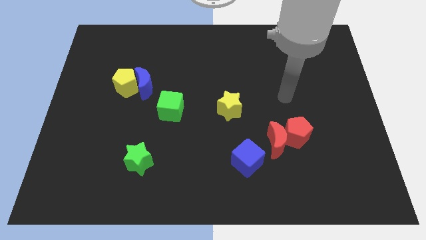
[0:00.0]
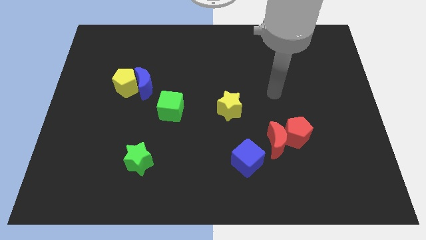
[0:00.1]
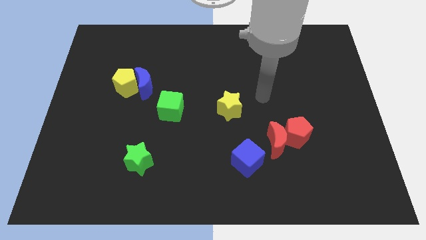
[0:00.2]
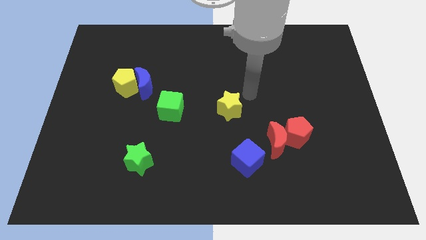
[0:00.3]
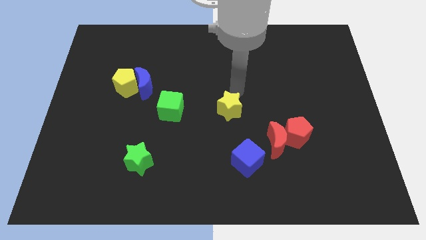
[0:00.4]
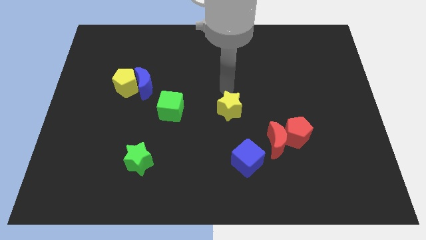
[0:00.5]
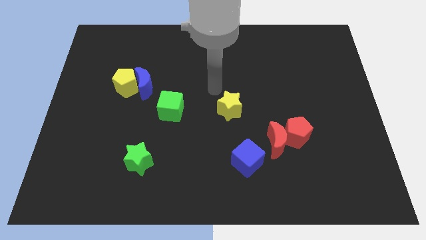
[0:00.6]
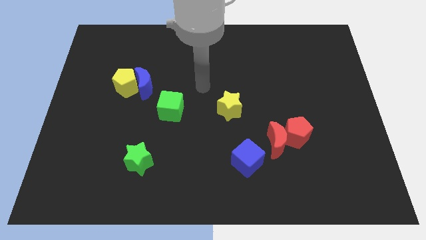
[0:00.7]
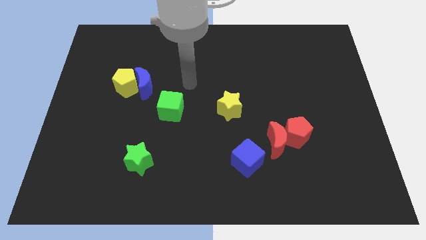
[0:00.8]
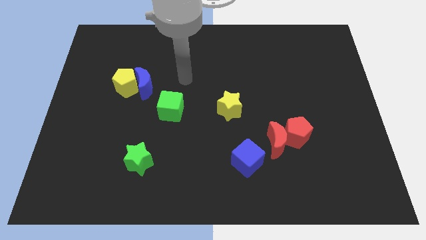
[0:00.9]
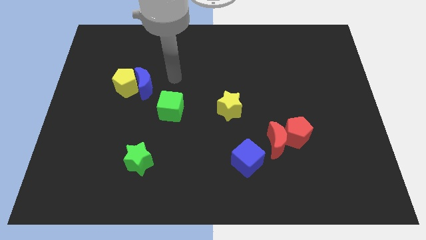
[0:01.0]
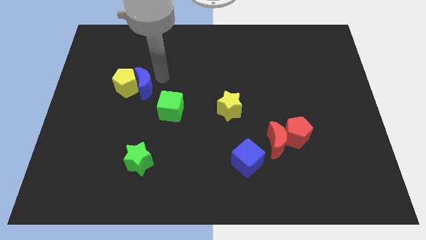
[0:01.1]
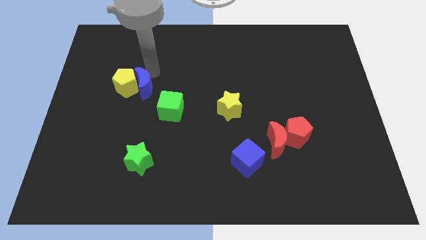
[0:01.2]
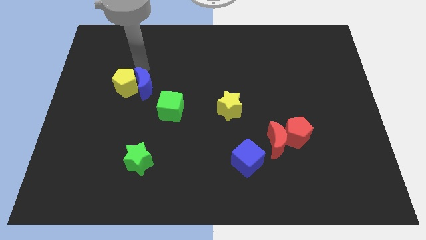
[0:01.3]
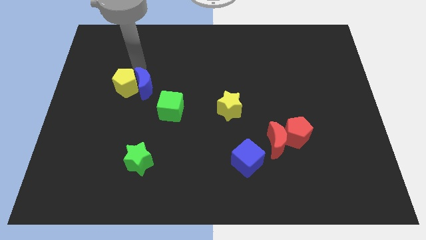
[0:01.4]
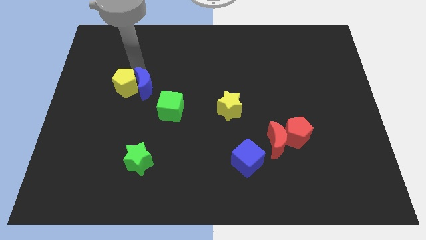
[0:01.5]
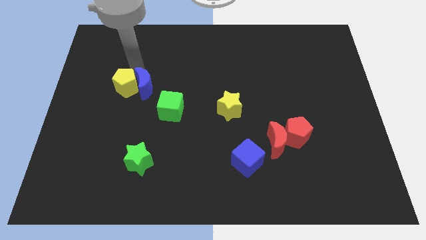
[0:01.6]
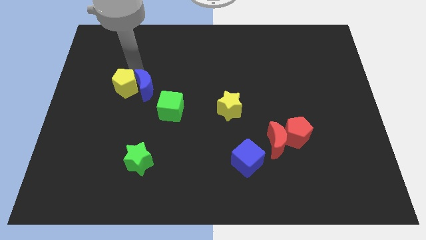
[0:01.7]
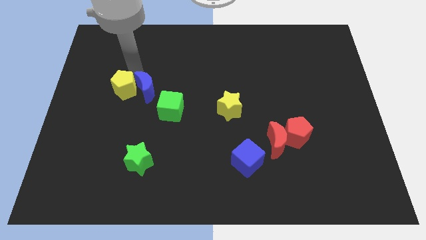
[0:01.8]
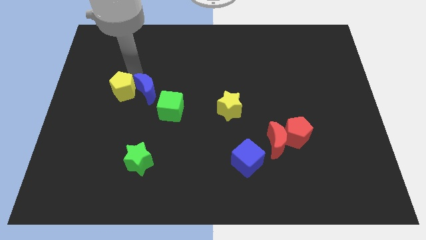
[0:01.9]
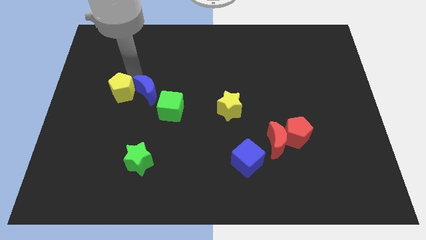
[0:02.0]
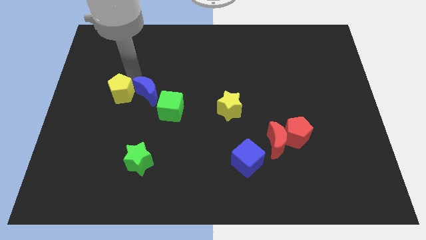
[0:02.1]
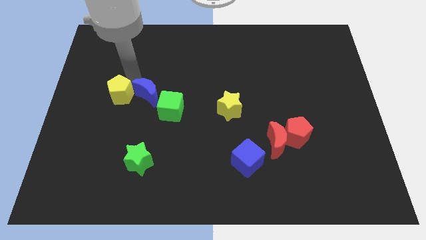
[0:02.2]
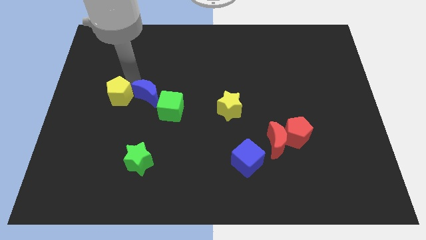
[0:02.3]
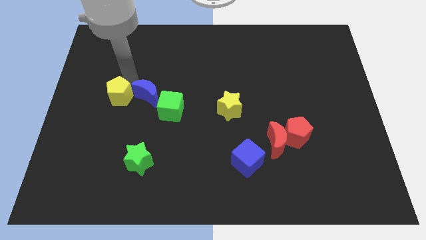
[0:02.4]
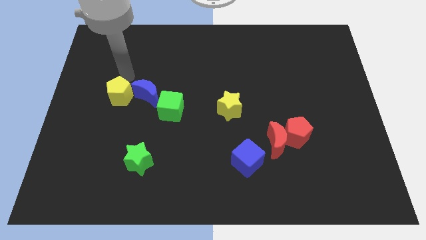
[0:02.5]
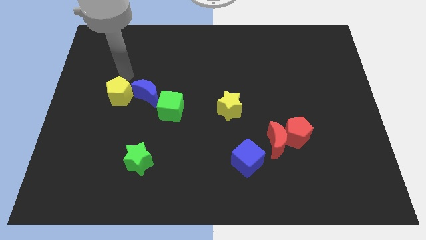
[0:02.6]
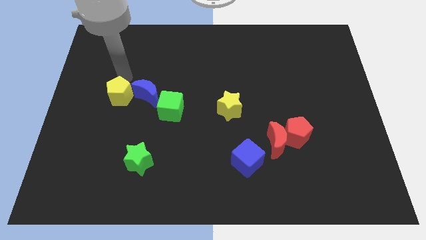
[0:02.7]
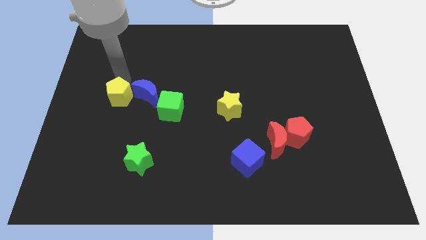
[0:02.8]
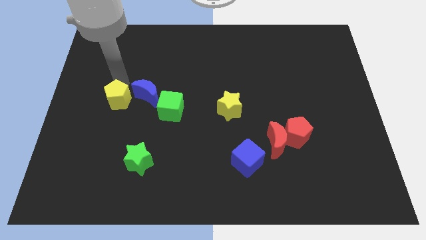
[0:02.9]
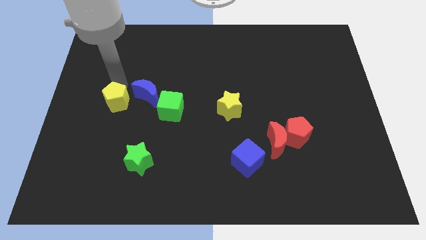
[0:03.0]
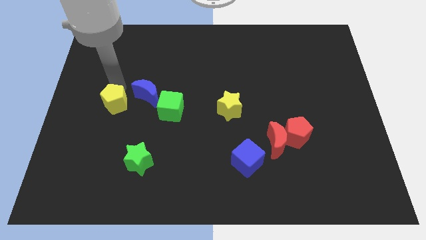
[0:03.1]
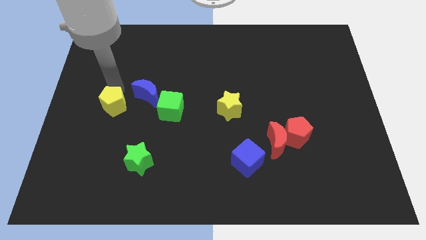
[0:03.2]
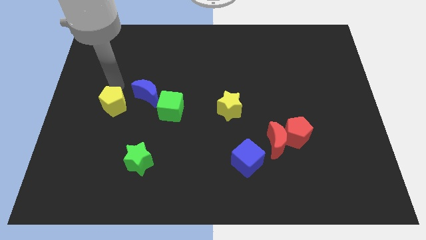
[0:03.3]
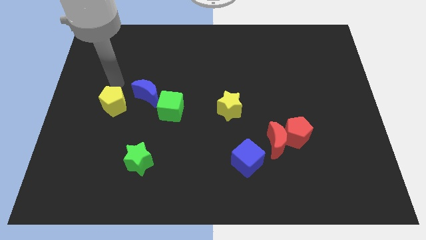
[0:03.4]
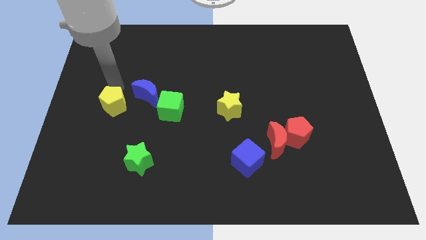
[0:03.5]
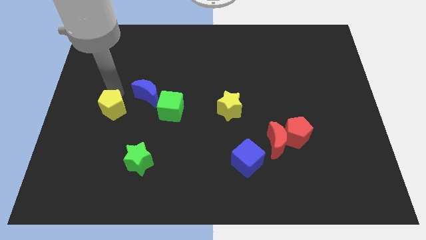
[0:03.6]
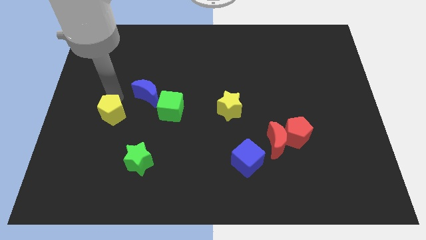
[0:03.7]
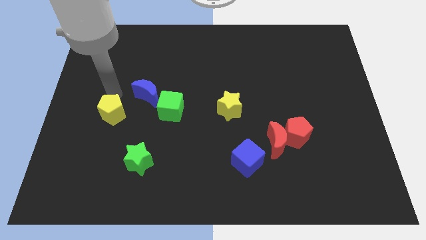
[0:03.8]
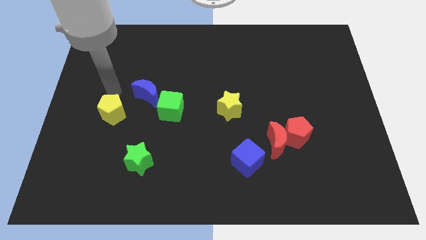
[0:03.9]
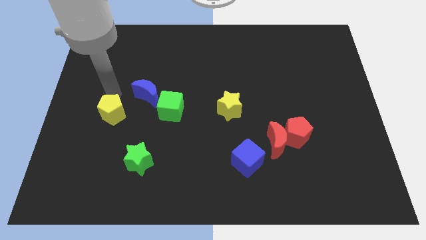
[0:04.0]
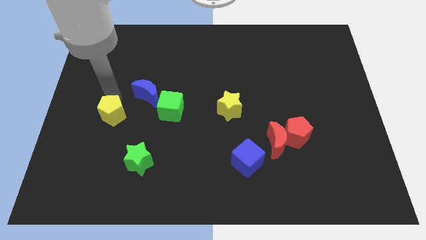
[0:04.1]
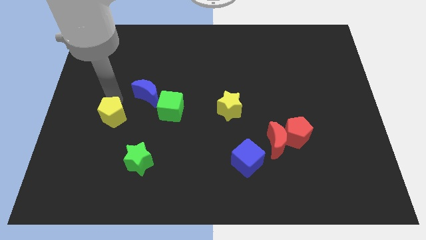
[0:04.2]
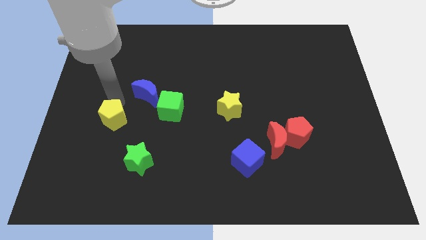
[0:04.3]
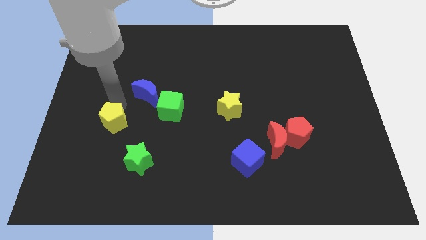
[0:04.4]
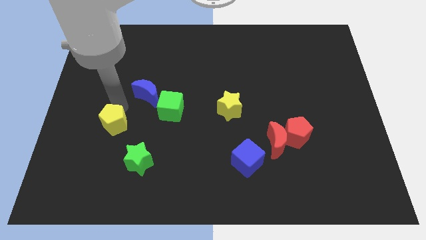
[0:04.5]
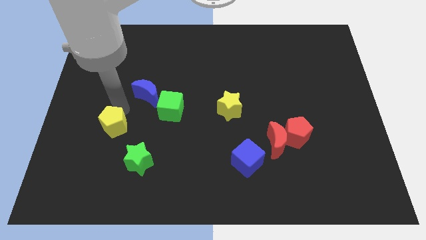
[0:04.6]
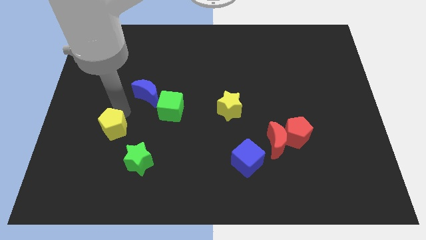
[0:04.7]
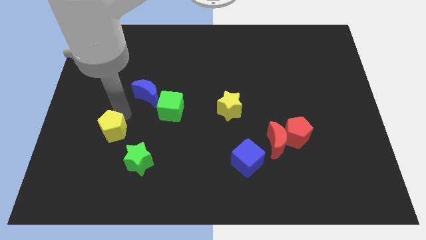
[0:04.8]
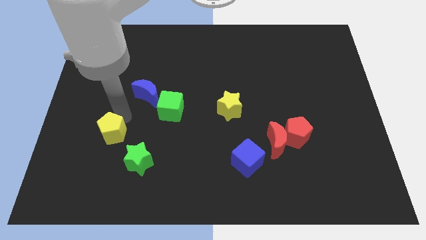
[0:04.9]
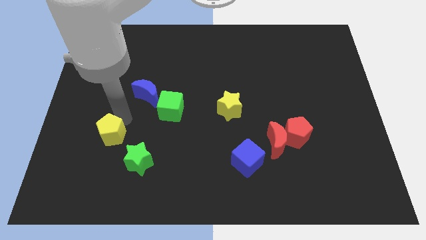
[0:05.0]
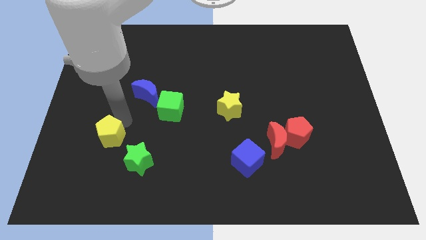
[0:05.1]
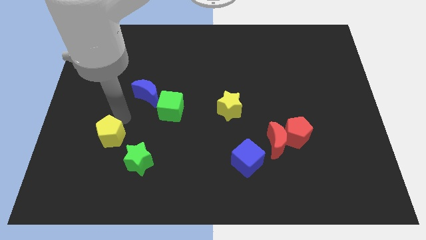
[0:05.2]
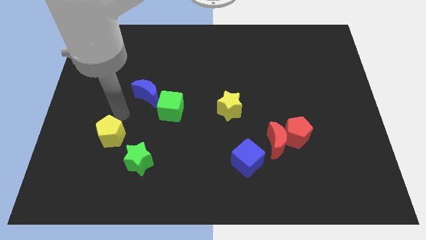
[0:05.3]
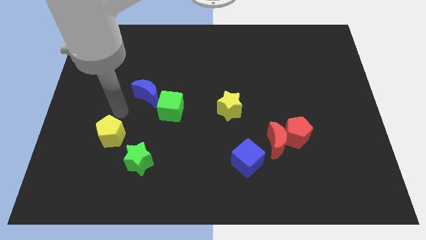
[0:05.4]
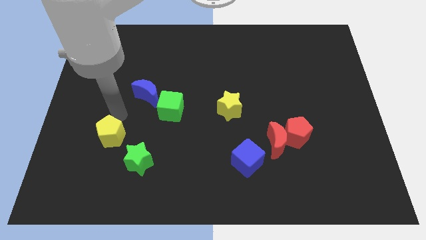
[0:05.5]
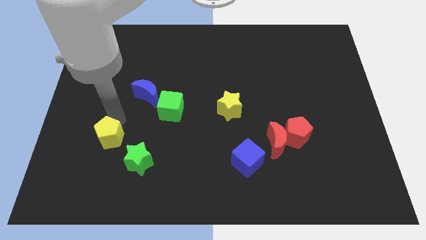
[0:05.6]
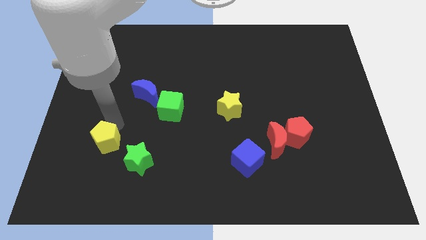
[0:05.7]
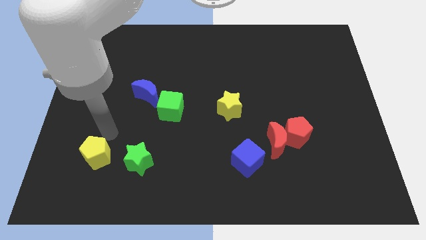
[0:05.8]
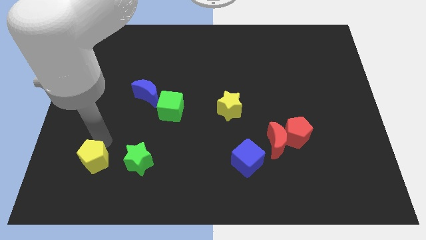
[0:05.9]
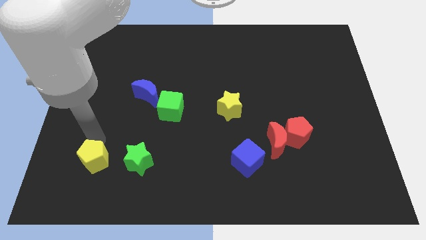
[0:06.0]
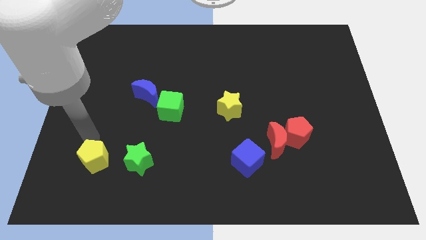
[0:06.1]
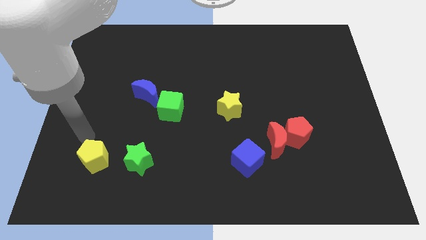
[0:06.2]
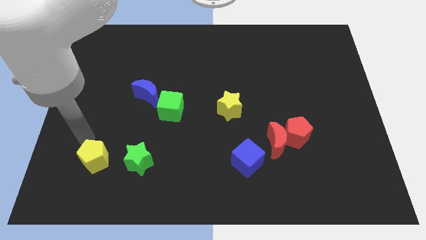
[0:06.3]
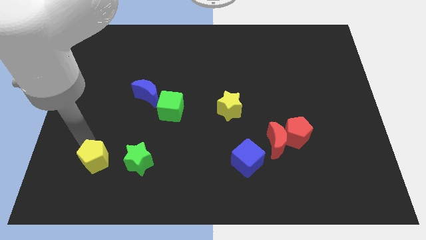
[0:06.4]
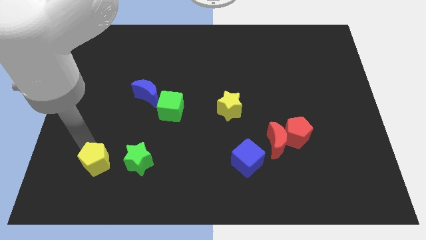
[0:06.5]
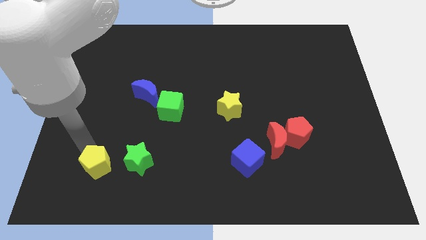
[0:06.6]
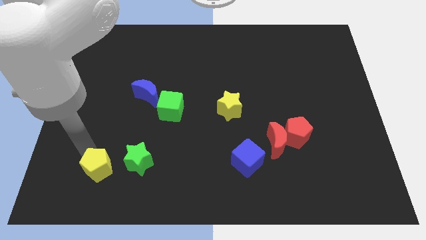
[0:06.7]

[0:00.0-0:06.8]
move the yellow pentagon diagonally down and to the left of the green star

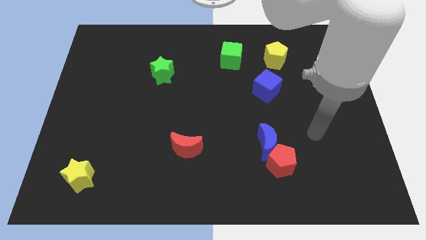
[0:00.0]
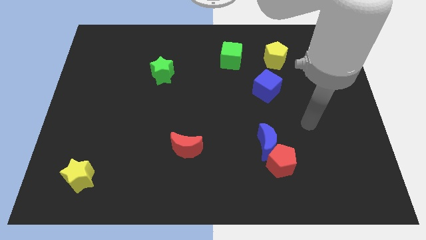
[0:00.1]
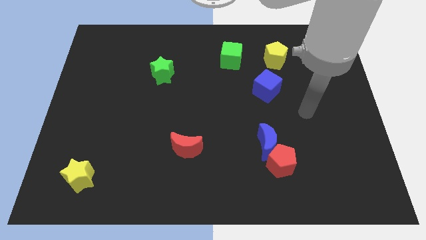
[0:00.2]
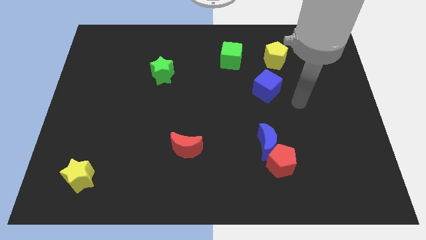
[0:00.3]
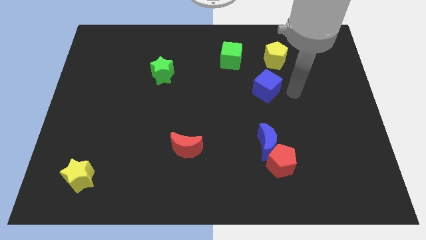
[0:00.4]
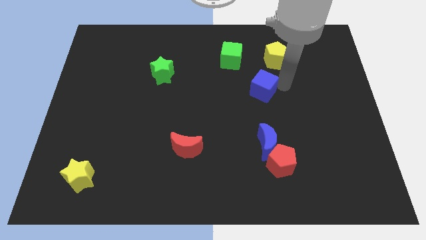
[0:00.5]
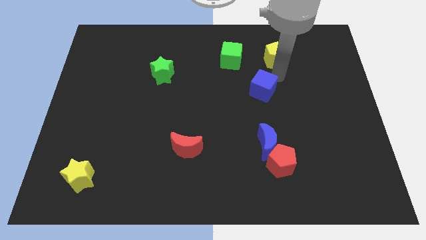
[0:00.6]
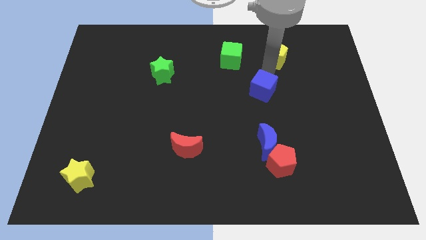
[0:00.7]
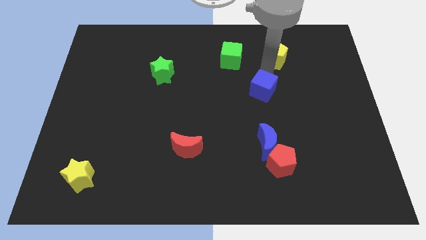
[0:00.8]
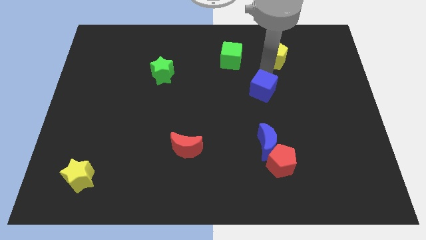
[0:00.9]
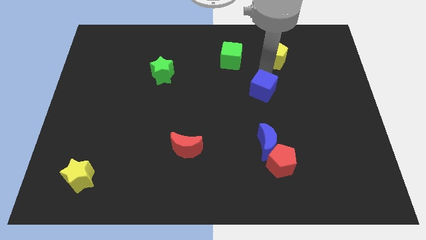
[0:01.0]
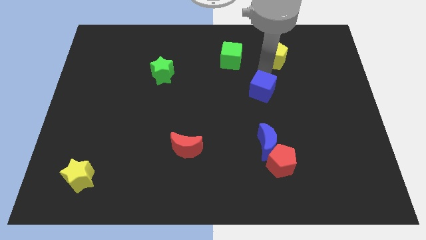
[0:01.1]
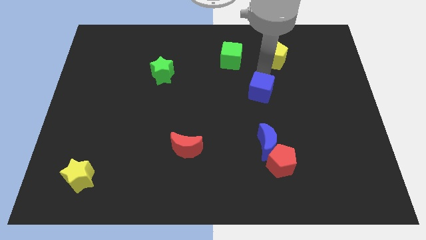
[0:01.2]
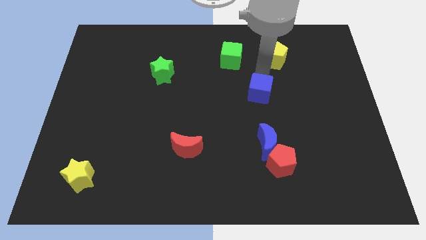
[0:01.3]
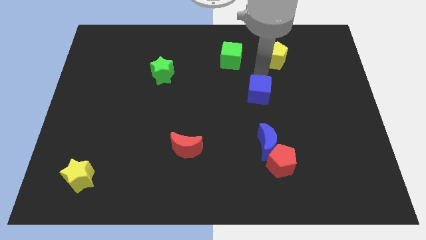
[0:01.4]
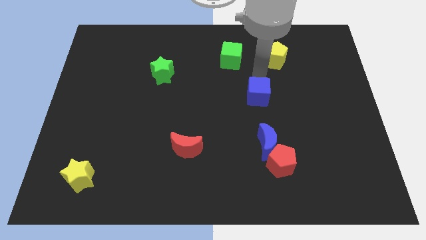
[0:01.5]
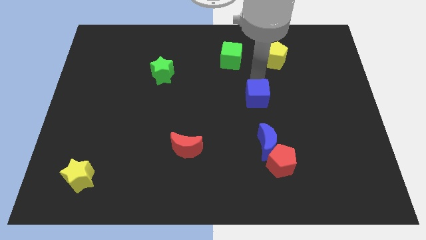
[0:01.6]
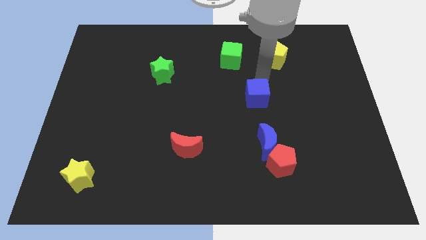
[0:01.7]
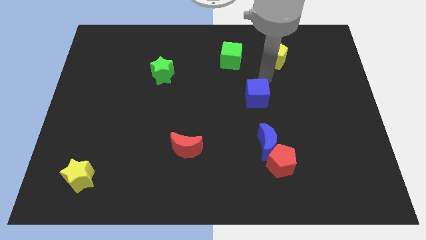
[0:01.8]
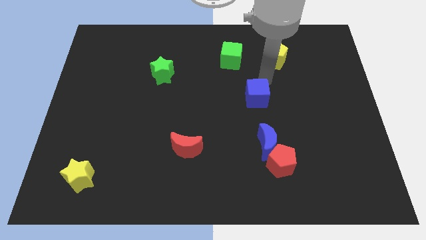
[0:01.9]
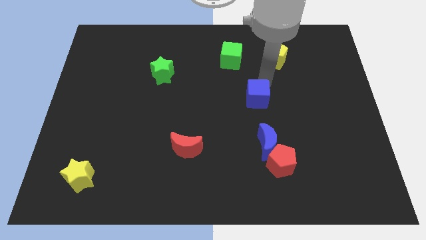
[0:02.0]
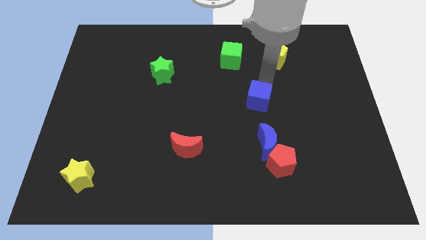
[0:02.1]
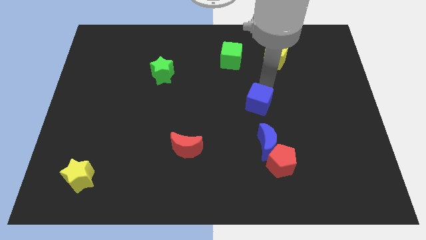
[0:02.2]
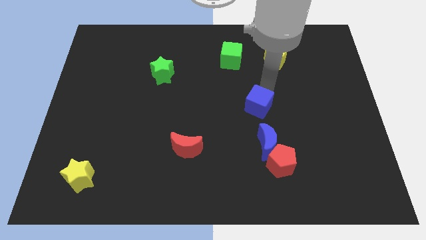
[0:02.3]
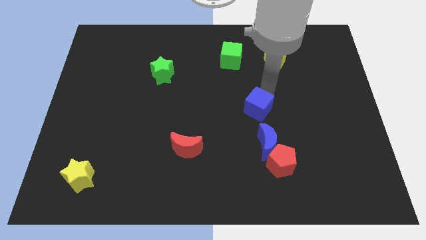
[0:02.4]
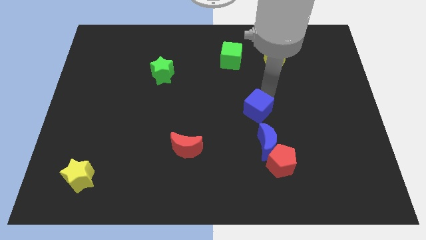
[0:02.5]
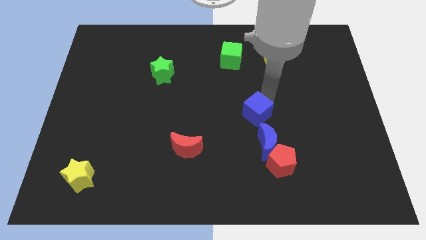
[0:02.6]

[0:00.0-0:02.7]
push the blue cube to the top left side of the blue moon
